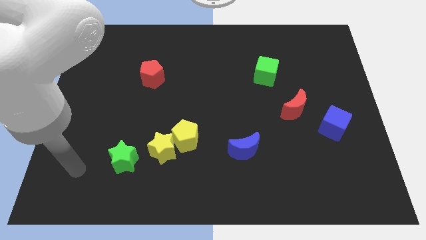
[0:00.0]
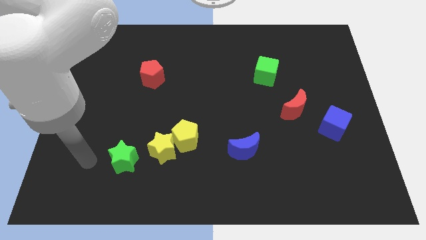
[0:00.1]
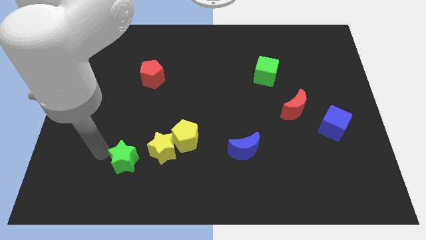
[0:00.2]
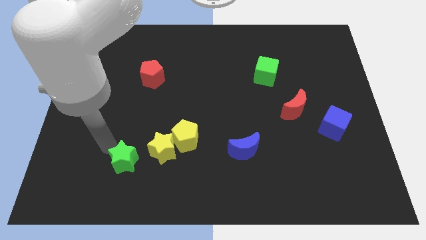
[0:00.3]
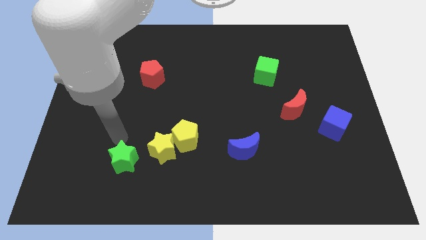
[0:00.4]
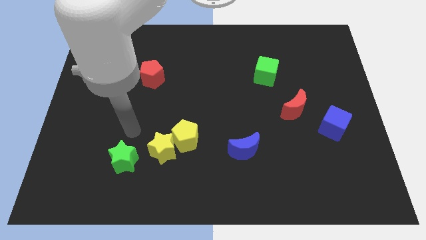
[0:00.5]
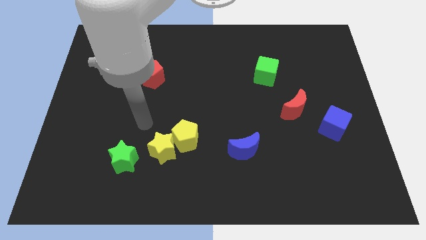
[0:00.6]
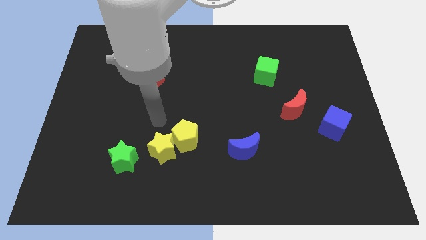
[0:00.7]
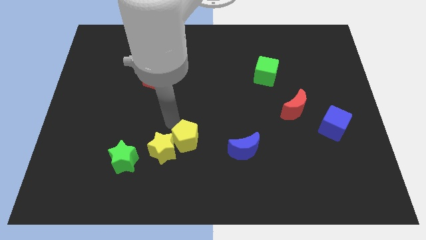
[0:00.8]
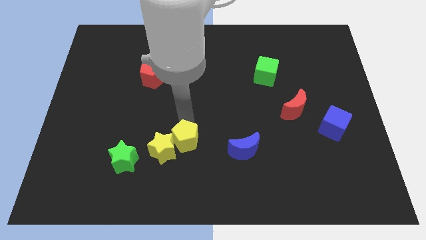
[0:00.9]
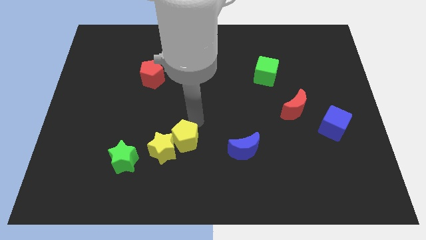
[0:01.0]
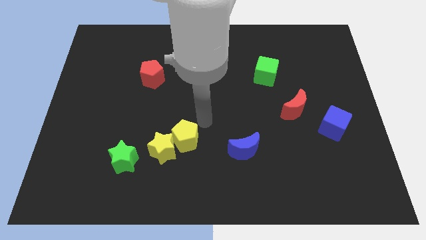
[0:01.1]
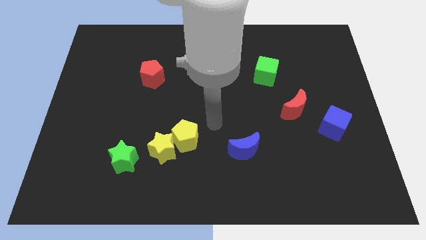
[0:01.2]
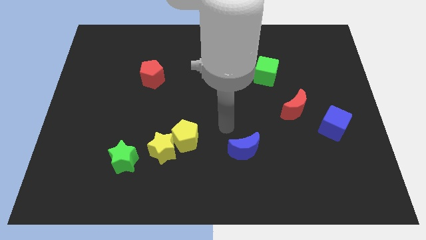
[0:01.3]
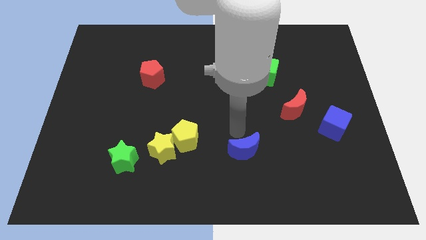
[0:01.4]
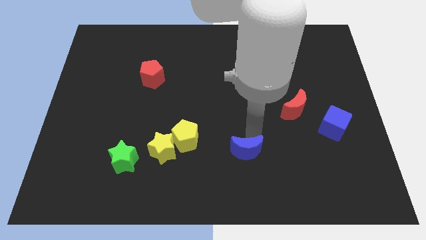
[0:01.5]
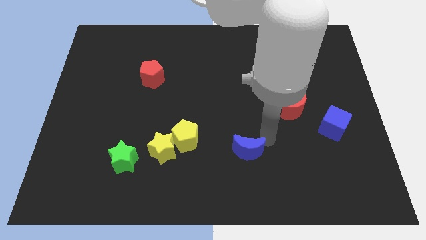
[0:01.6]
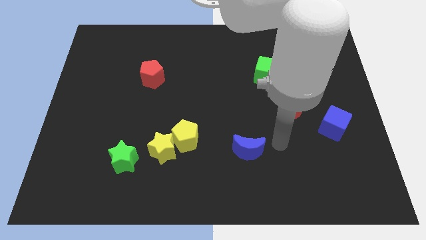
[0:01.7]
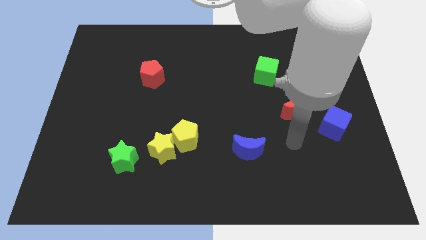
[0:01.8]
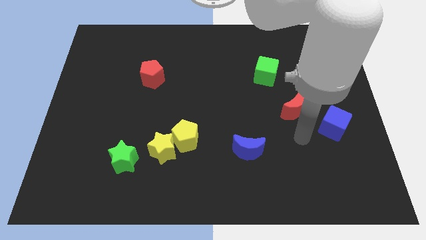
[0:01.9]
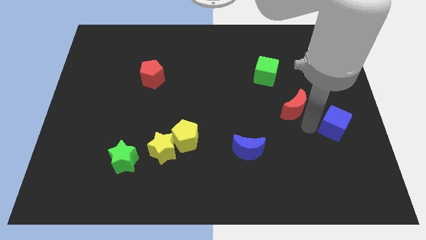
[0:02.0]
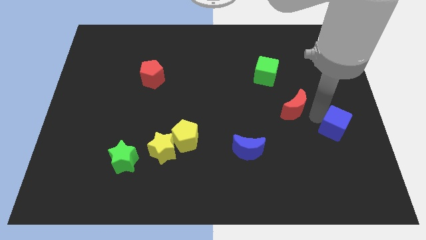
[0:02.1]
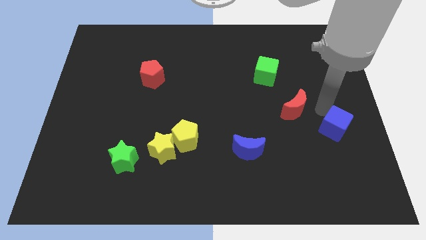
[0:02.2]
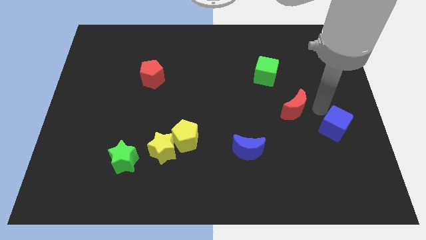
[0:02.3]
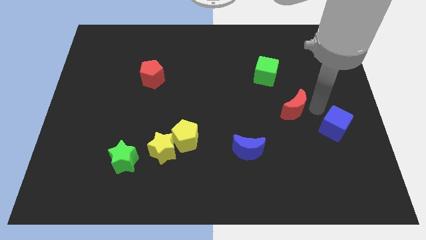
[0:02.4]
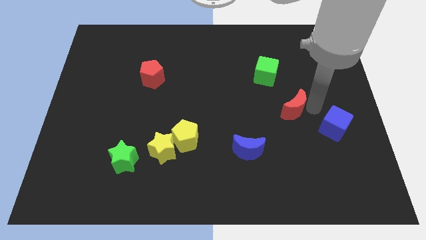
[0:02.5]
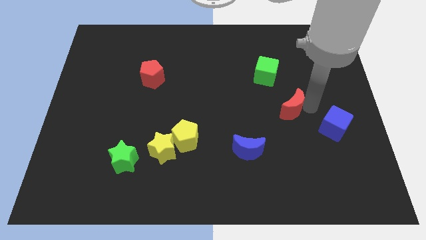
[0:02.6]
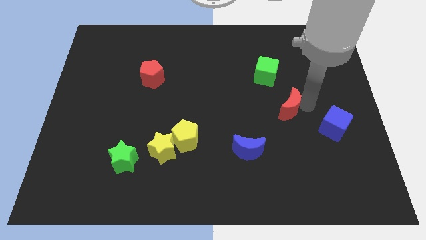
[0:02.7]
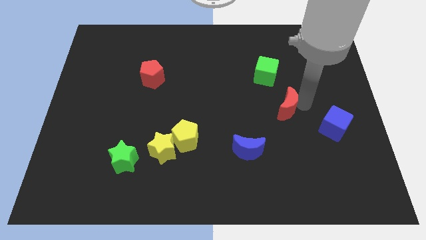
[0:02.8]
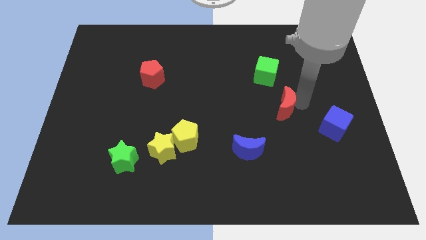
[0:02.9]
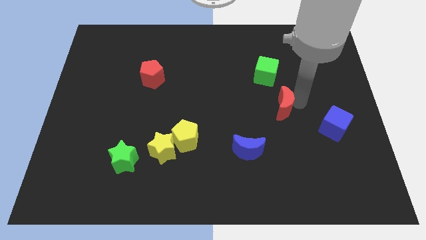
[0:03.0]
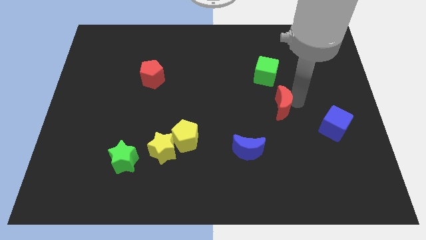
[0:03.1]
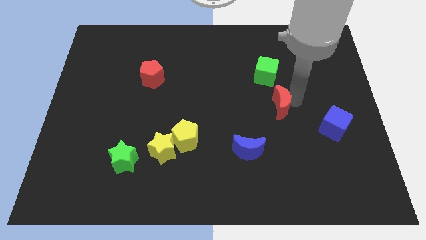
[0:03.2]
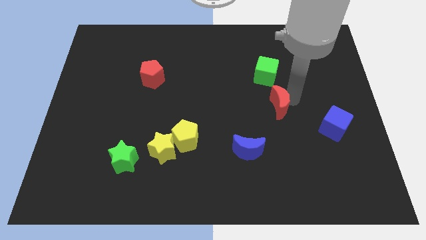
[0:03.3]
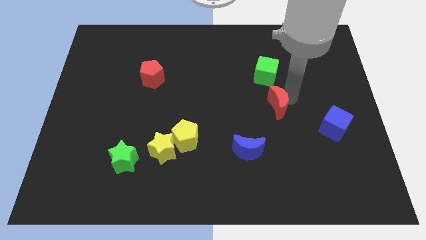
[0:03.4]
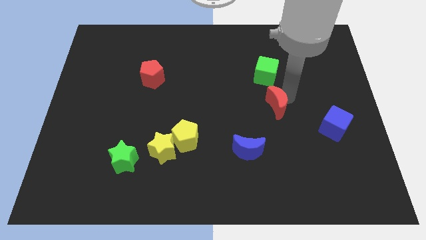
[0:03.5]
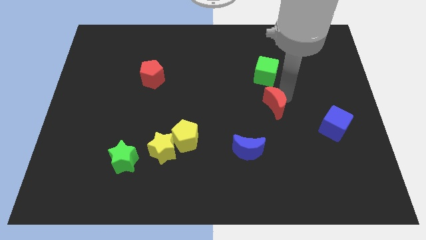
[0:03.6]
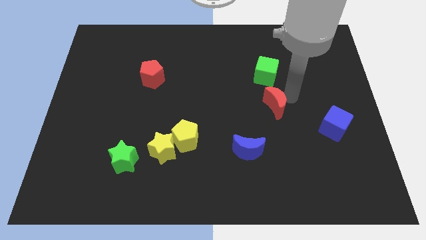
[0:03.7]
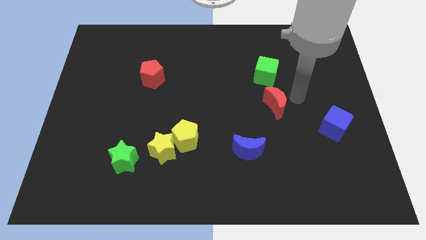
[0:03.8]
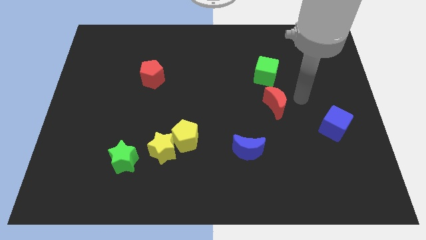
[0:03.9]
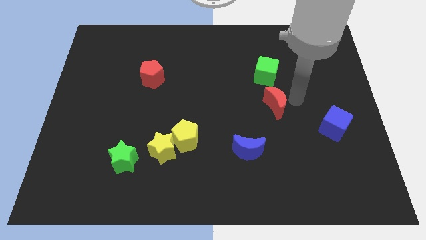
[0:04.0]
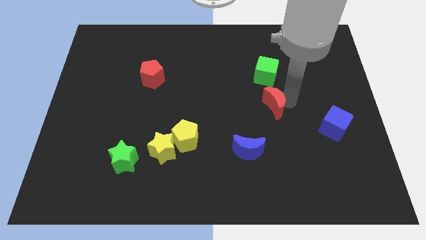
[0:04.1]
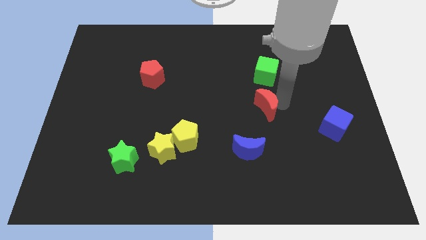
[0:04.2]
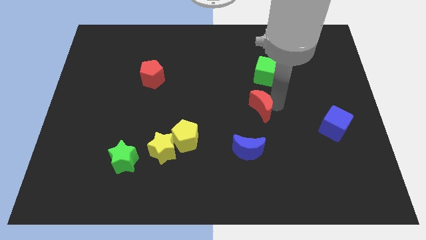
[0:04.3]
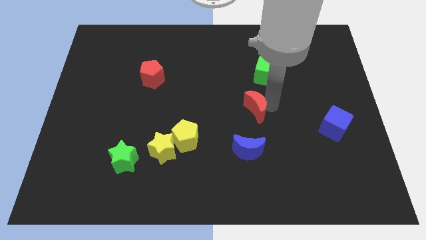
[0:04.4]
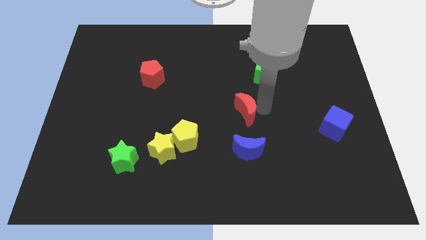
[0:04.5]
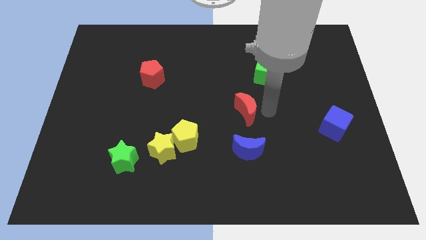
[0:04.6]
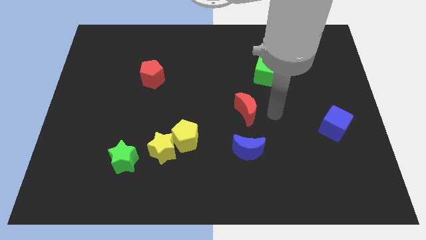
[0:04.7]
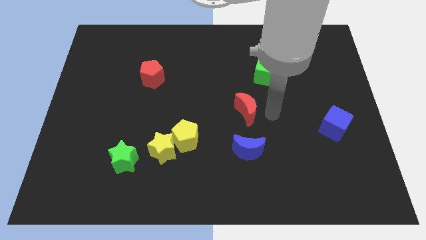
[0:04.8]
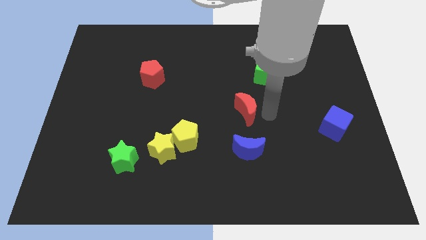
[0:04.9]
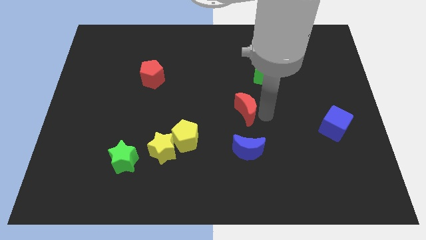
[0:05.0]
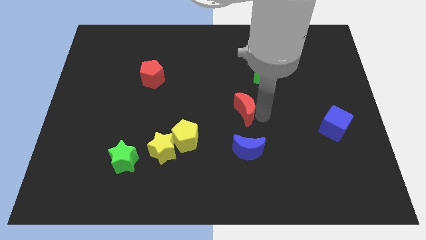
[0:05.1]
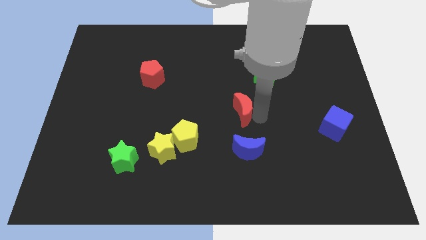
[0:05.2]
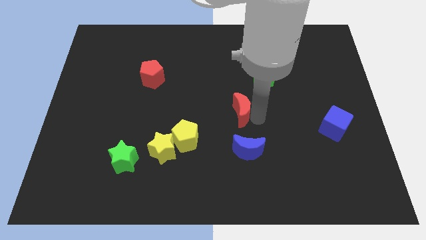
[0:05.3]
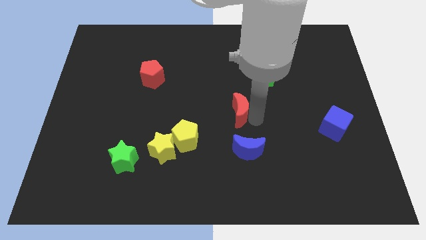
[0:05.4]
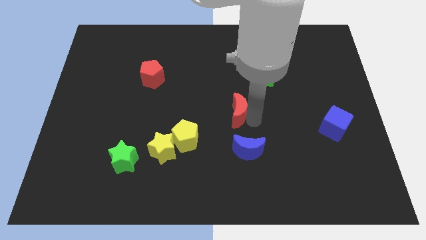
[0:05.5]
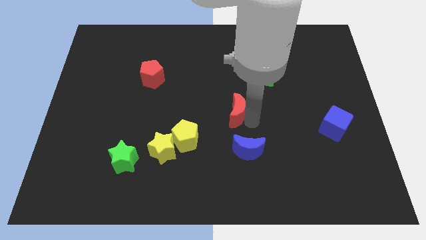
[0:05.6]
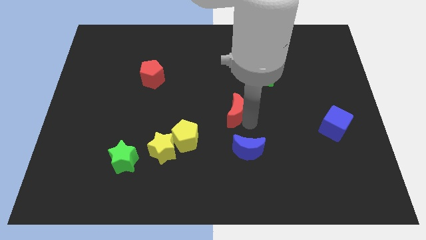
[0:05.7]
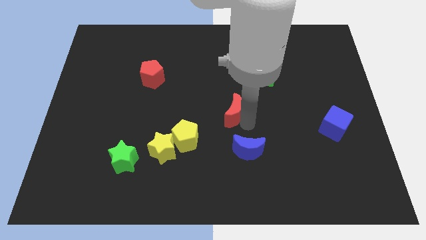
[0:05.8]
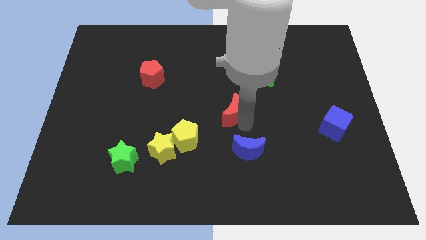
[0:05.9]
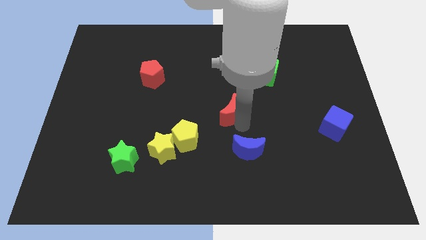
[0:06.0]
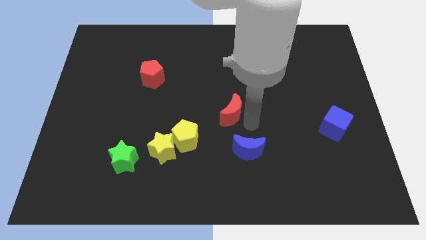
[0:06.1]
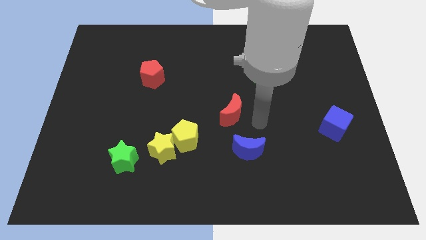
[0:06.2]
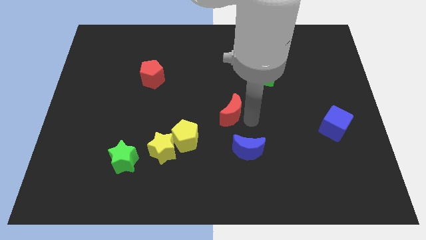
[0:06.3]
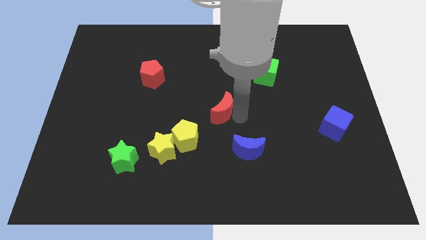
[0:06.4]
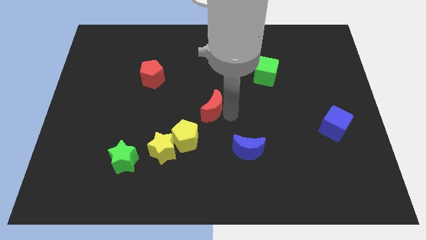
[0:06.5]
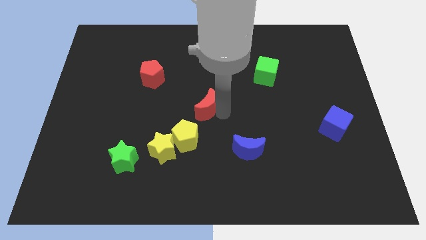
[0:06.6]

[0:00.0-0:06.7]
put the red moon to the top of the yellow pentagon

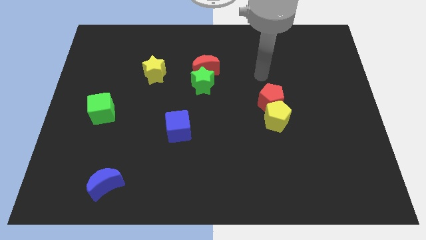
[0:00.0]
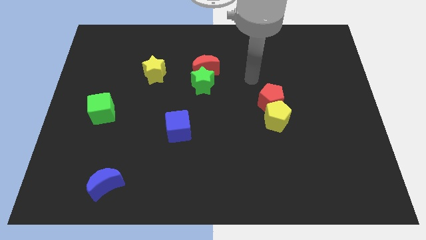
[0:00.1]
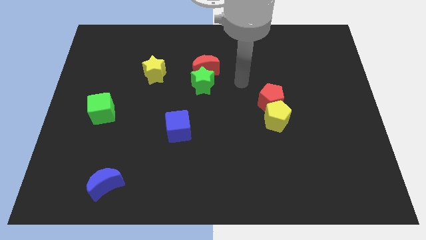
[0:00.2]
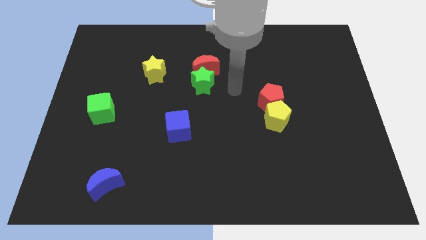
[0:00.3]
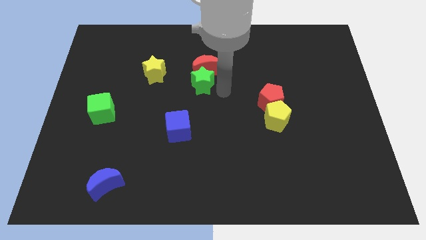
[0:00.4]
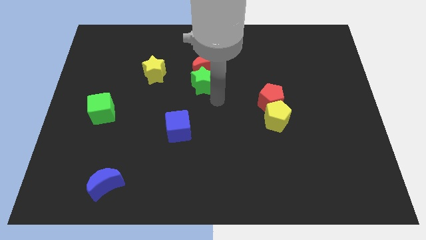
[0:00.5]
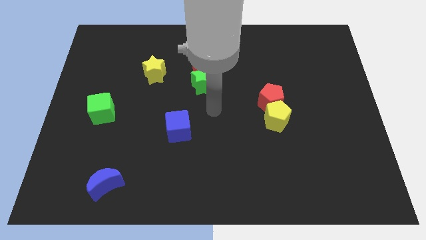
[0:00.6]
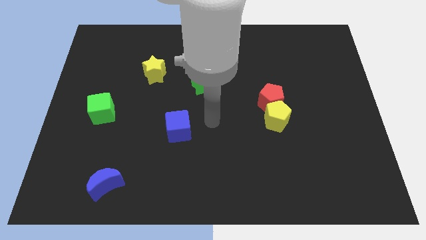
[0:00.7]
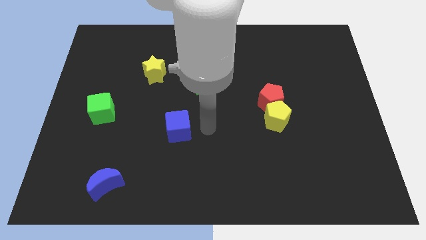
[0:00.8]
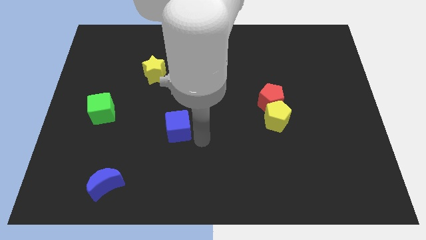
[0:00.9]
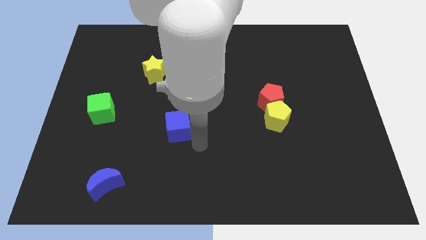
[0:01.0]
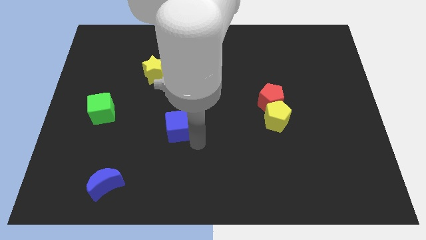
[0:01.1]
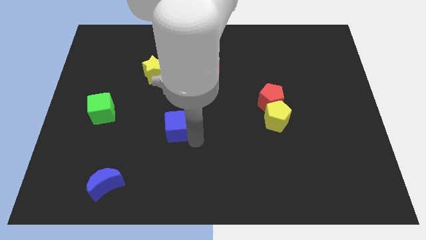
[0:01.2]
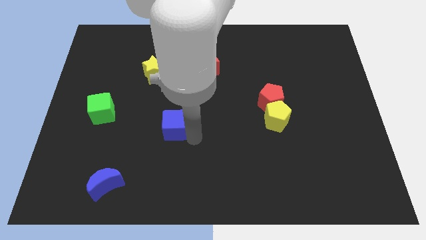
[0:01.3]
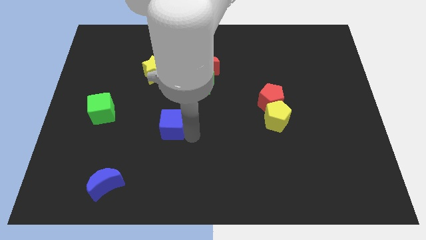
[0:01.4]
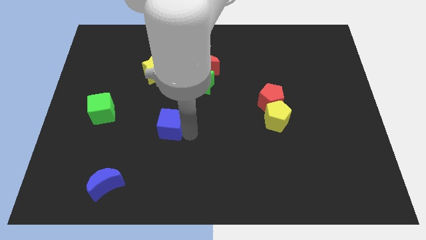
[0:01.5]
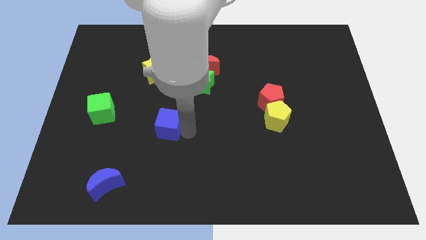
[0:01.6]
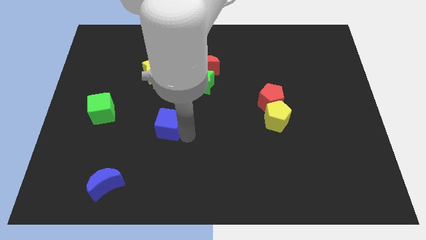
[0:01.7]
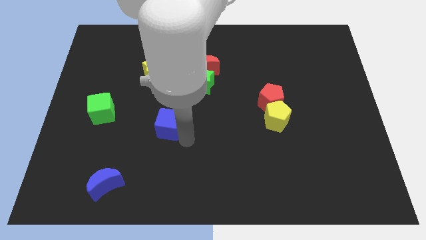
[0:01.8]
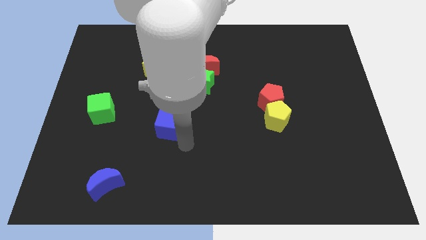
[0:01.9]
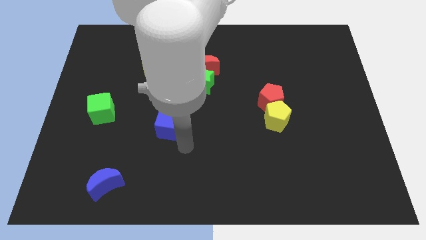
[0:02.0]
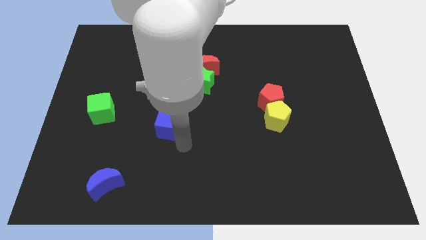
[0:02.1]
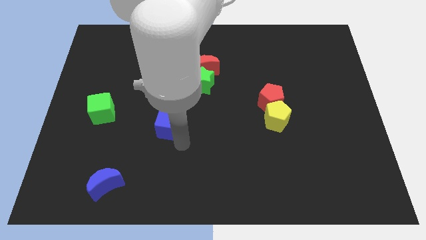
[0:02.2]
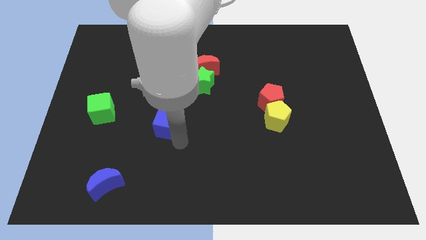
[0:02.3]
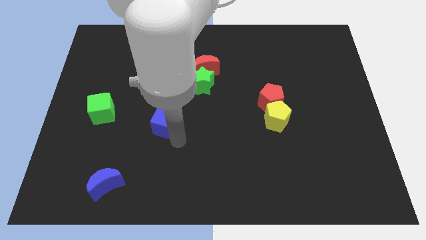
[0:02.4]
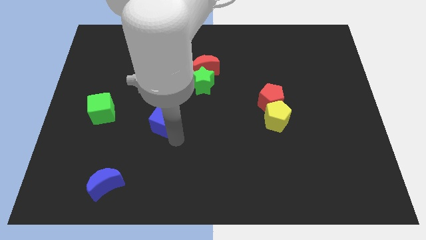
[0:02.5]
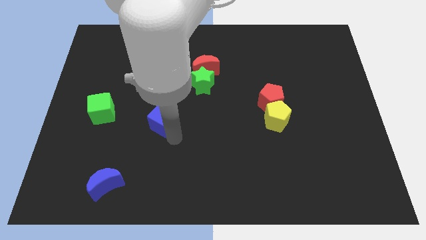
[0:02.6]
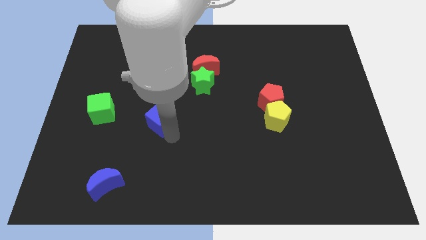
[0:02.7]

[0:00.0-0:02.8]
put the blue cube below the yellow star
